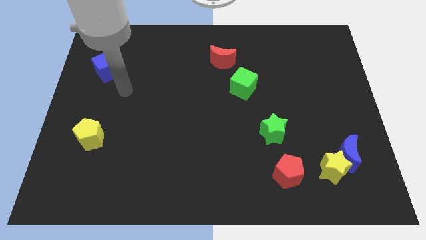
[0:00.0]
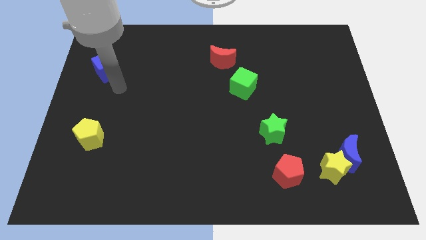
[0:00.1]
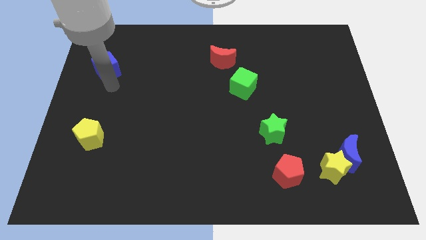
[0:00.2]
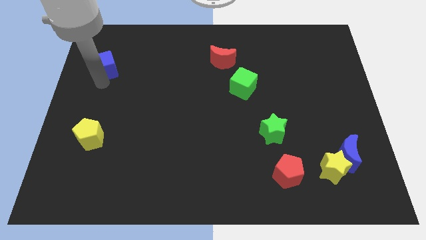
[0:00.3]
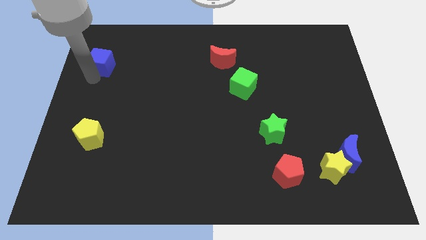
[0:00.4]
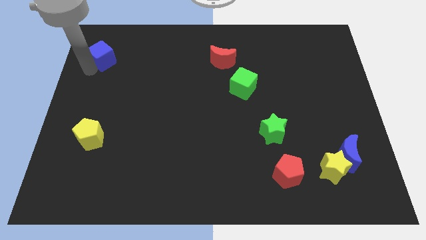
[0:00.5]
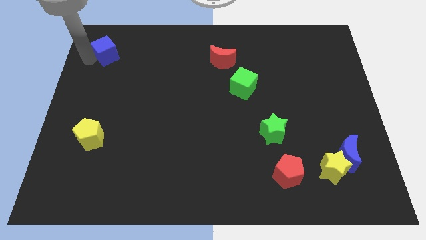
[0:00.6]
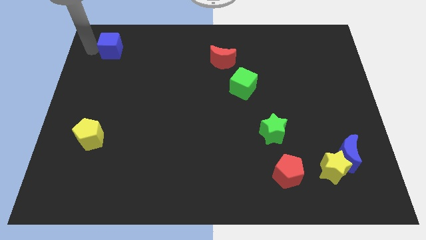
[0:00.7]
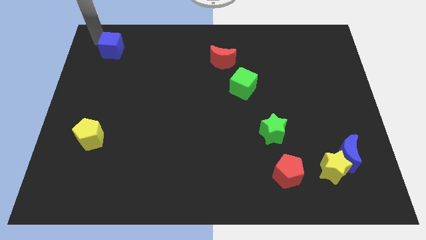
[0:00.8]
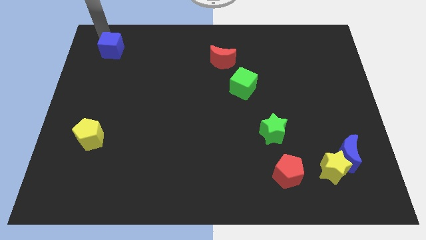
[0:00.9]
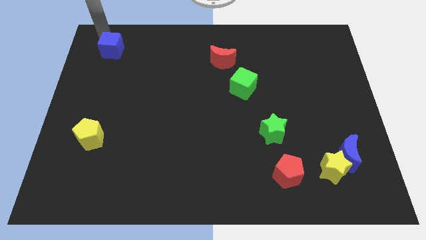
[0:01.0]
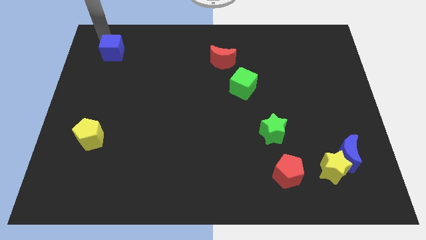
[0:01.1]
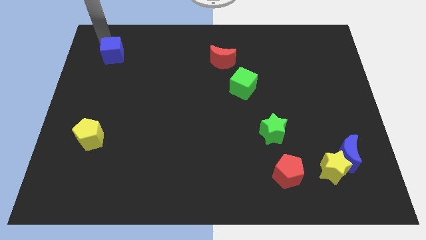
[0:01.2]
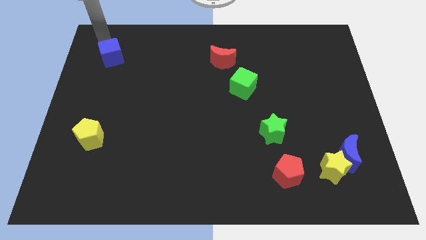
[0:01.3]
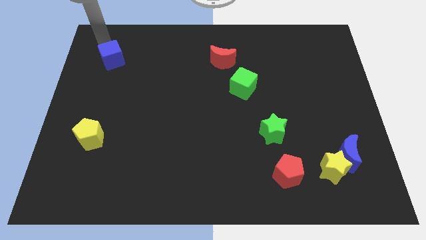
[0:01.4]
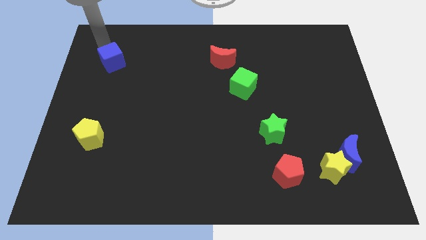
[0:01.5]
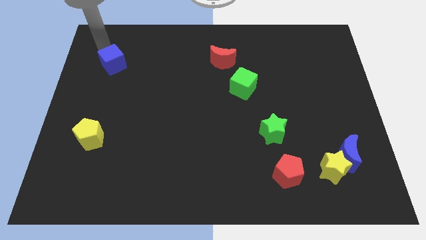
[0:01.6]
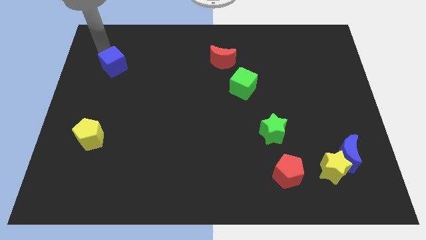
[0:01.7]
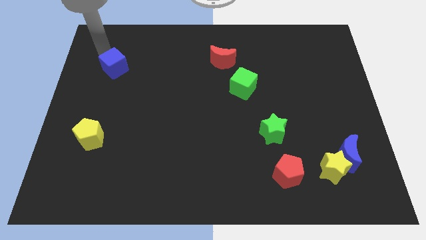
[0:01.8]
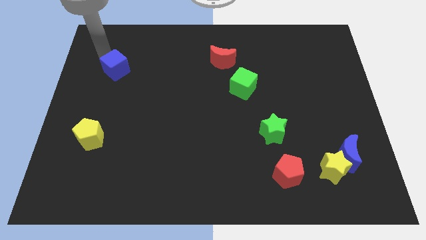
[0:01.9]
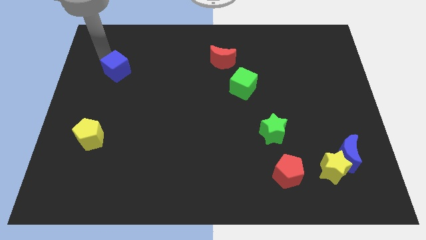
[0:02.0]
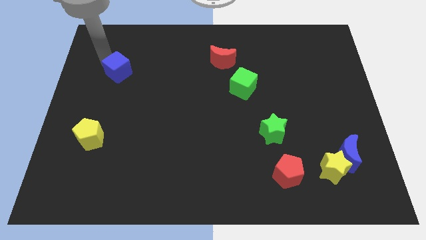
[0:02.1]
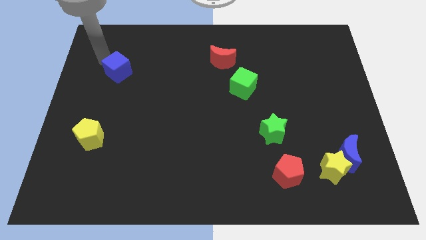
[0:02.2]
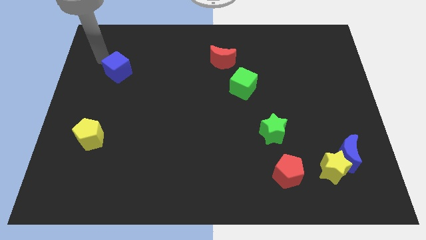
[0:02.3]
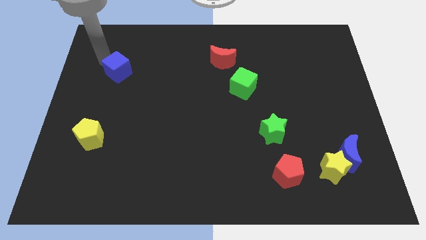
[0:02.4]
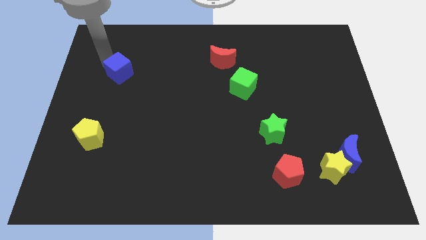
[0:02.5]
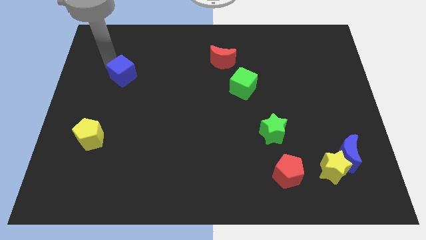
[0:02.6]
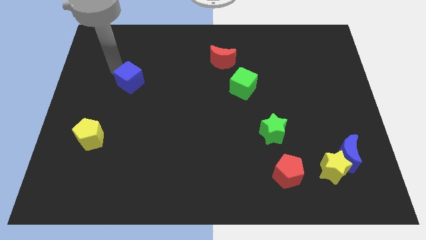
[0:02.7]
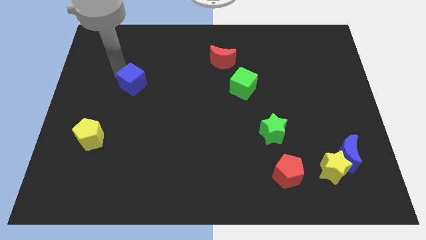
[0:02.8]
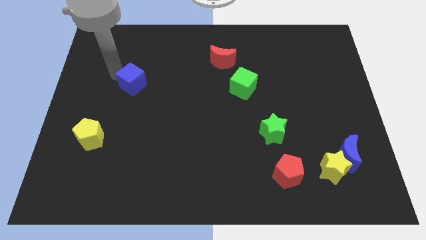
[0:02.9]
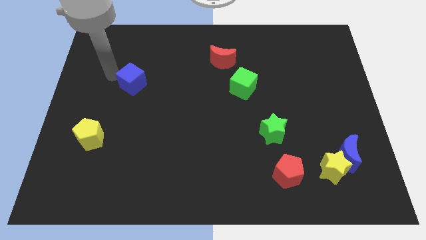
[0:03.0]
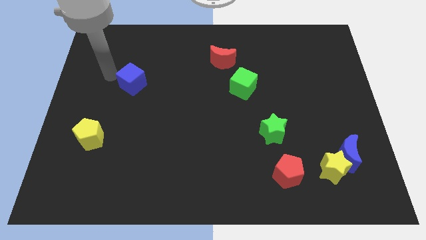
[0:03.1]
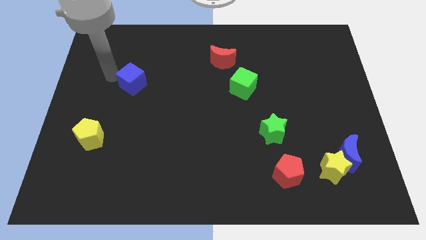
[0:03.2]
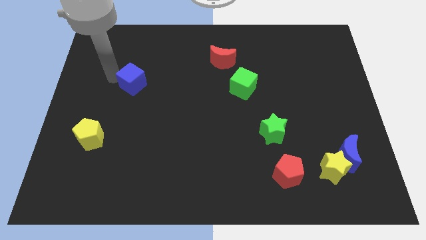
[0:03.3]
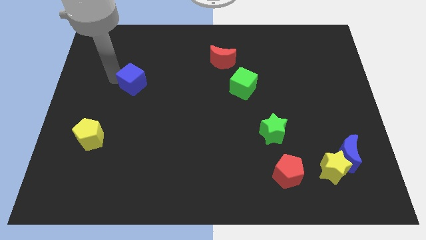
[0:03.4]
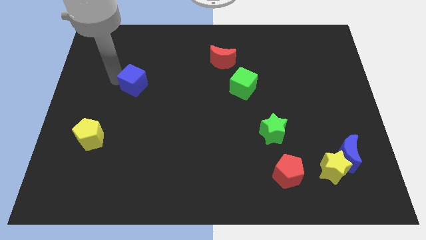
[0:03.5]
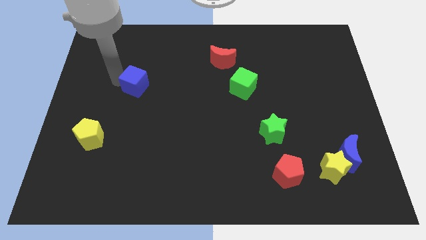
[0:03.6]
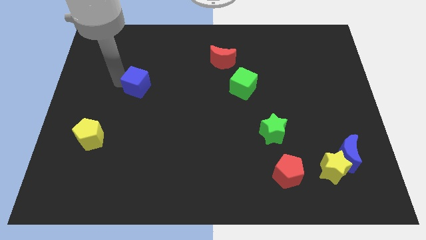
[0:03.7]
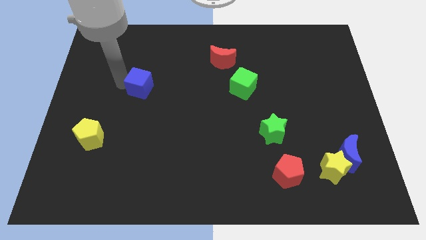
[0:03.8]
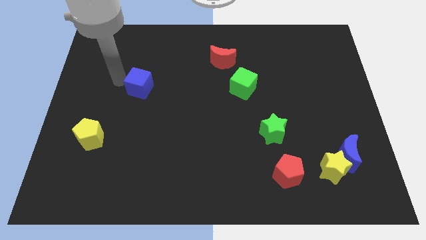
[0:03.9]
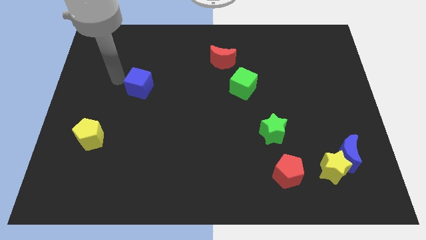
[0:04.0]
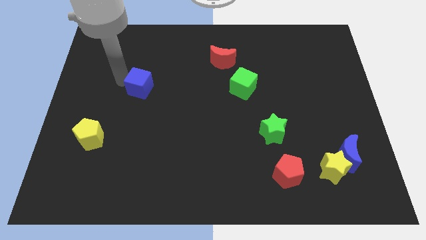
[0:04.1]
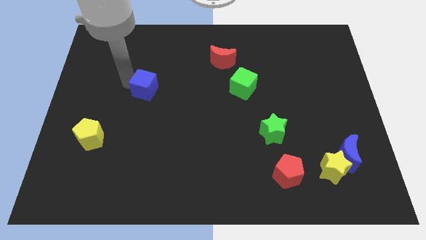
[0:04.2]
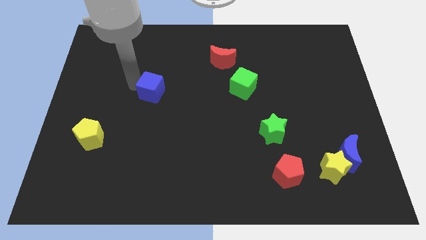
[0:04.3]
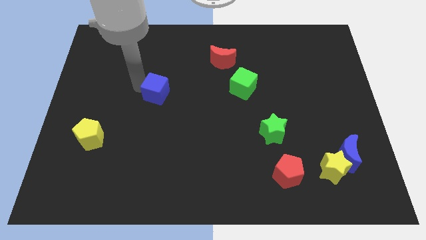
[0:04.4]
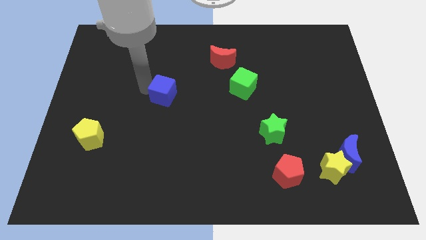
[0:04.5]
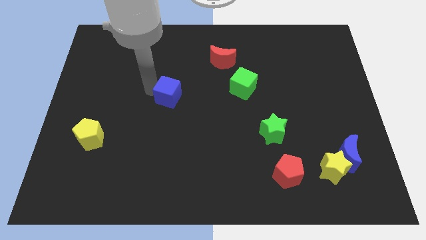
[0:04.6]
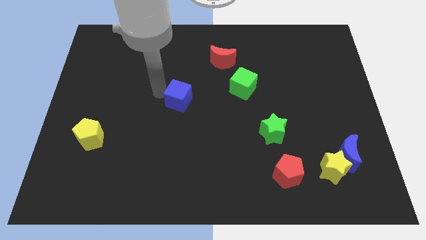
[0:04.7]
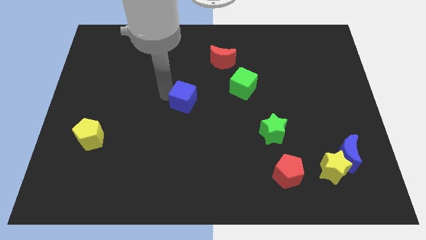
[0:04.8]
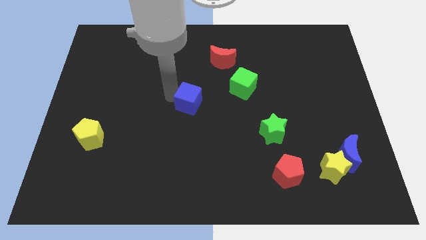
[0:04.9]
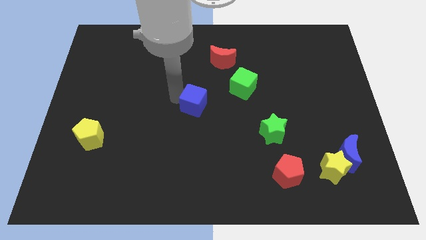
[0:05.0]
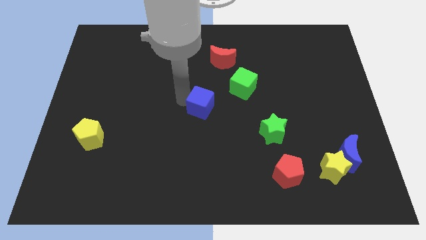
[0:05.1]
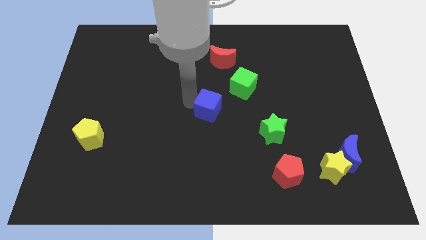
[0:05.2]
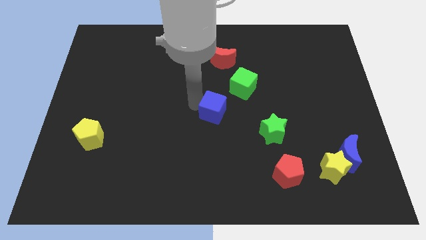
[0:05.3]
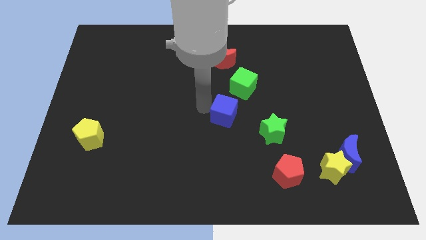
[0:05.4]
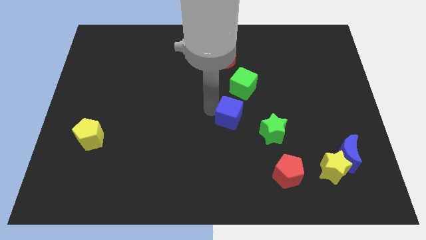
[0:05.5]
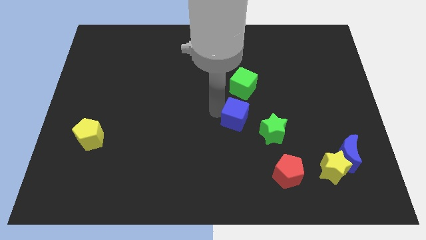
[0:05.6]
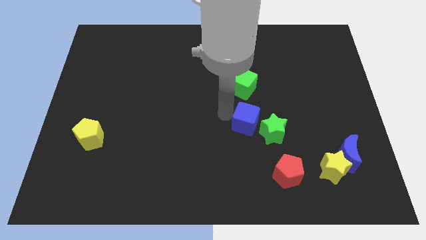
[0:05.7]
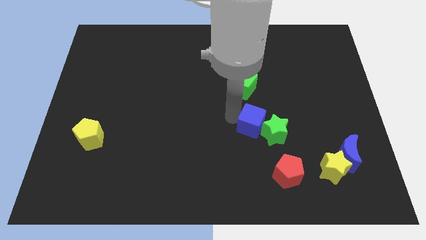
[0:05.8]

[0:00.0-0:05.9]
push the blue cube to the green star
